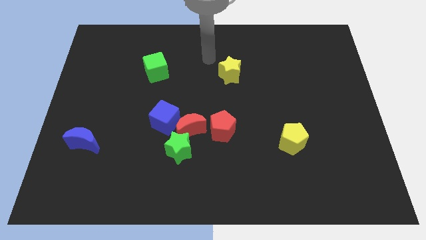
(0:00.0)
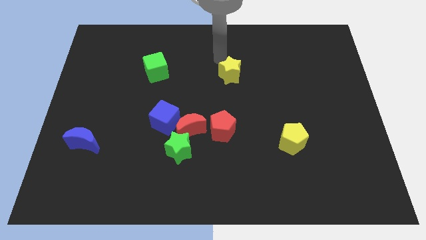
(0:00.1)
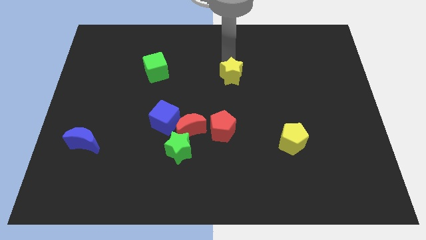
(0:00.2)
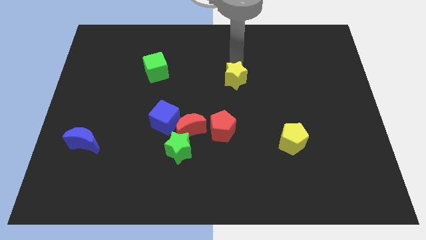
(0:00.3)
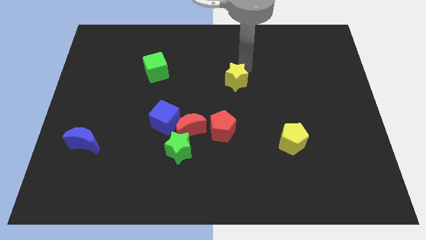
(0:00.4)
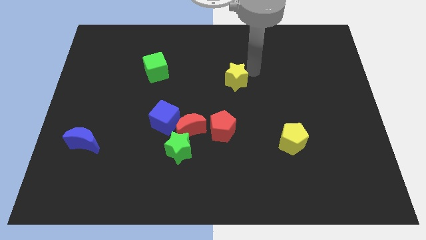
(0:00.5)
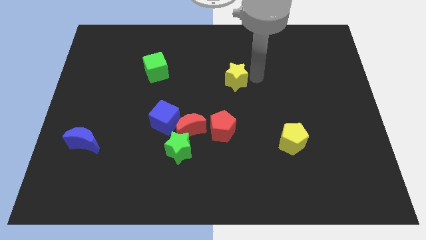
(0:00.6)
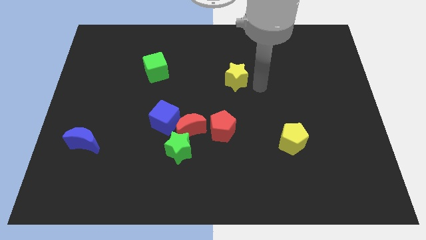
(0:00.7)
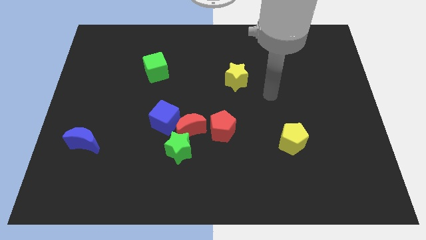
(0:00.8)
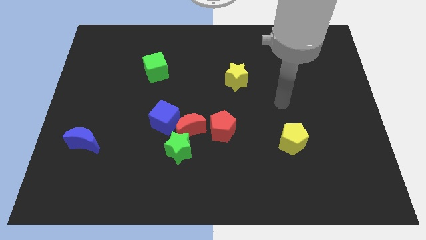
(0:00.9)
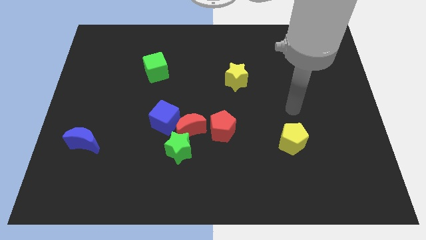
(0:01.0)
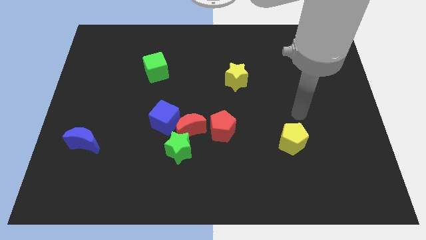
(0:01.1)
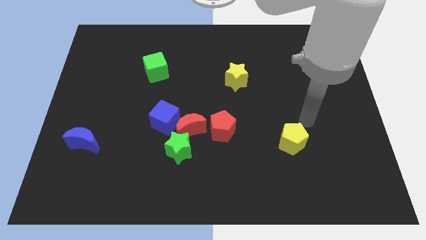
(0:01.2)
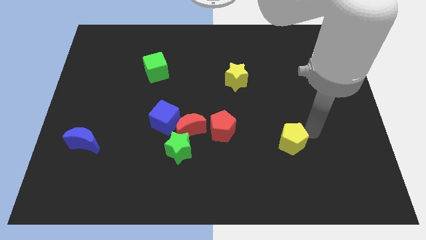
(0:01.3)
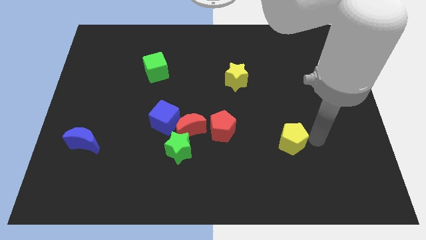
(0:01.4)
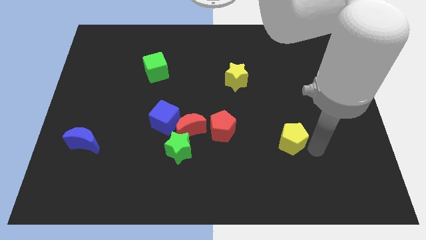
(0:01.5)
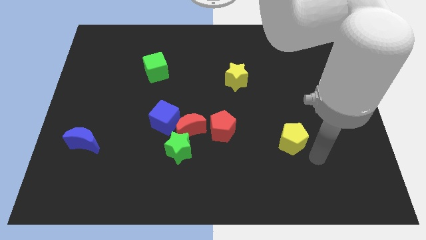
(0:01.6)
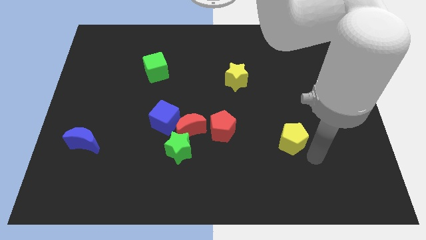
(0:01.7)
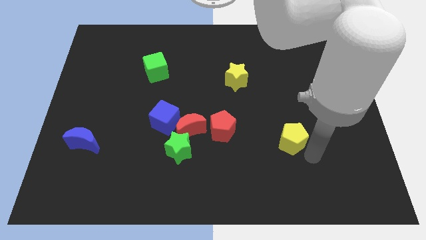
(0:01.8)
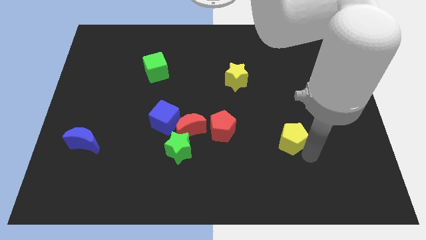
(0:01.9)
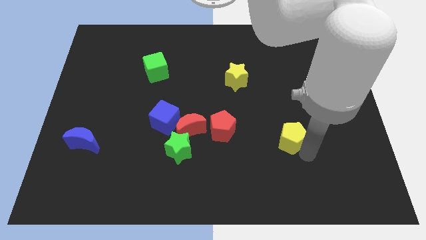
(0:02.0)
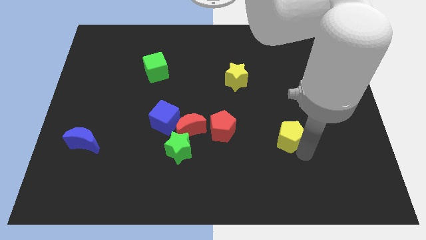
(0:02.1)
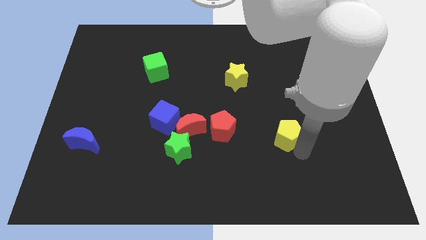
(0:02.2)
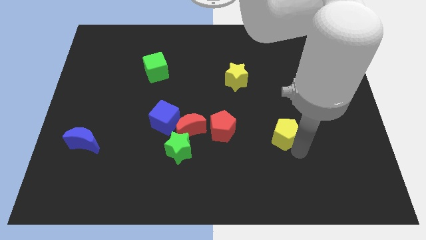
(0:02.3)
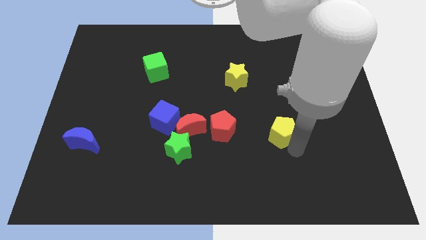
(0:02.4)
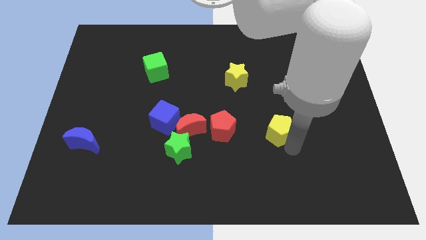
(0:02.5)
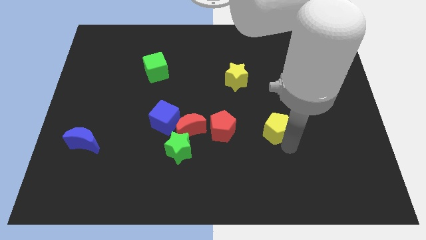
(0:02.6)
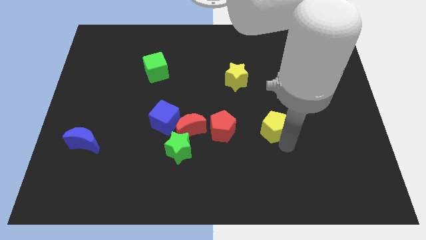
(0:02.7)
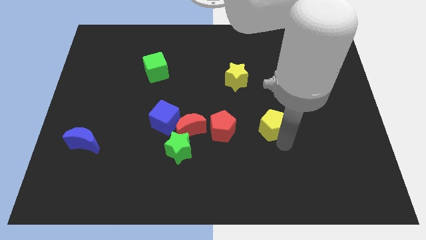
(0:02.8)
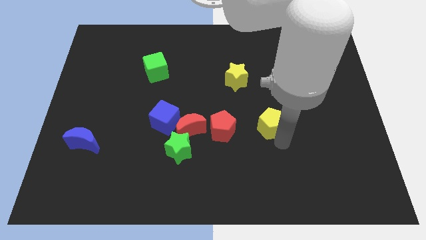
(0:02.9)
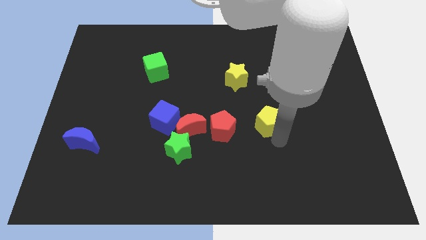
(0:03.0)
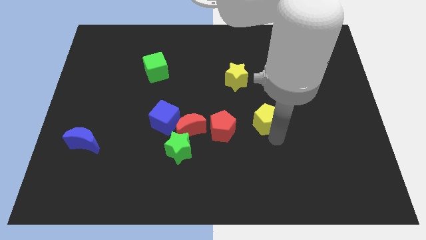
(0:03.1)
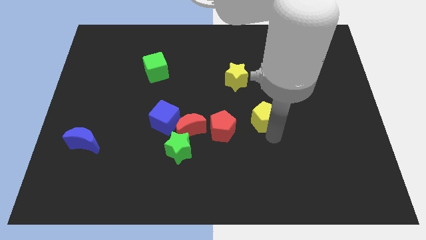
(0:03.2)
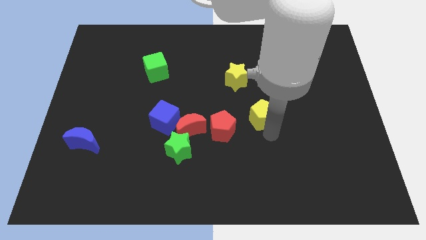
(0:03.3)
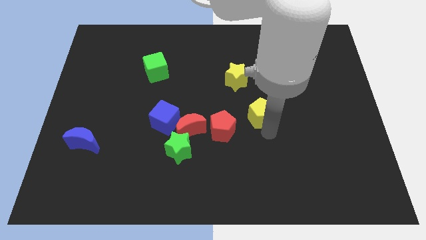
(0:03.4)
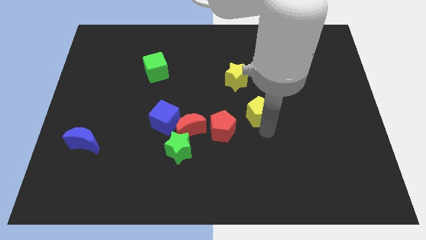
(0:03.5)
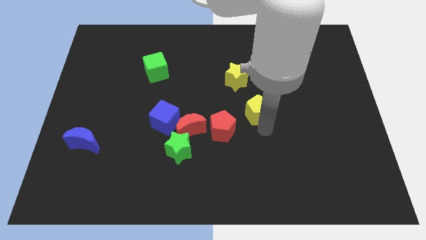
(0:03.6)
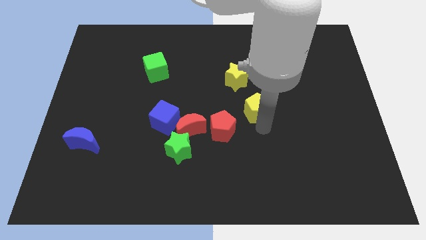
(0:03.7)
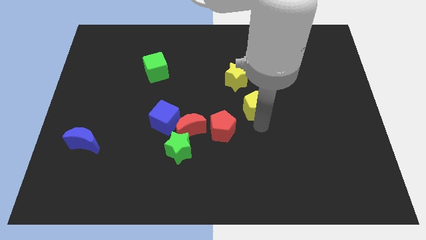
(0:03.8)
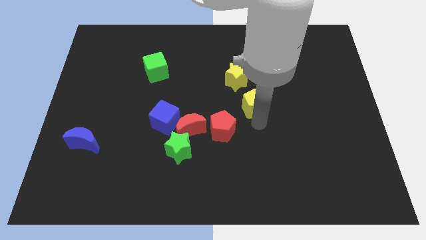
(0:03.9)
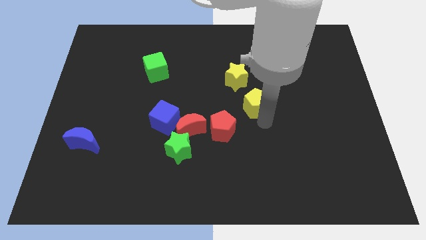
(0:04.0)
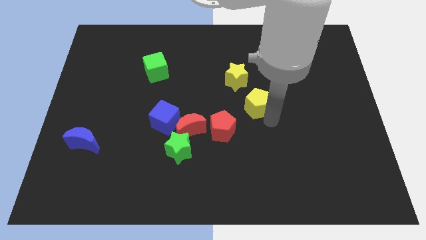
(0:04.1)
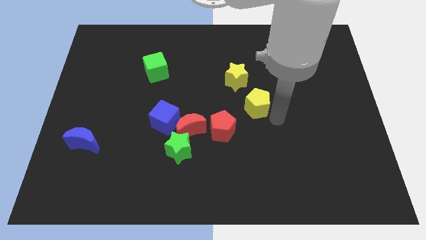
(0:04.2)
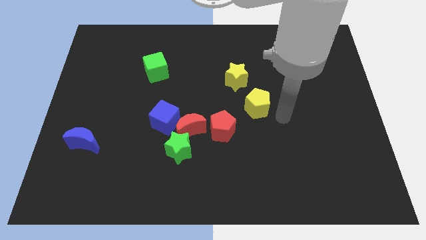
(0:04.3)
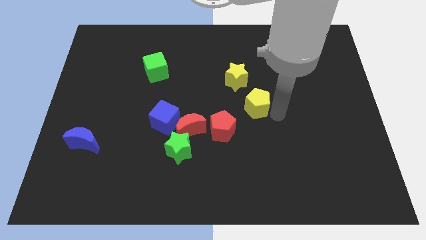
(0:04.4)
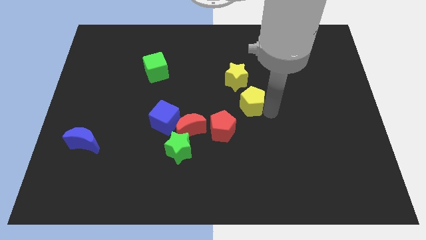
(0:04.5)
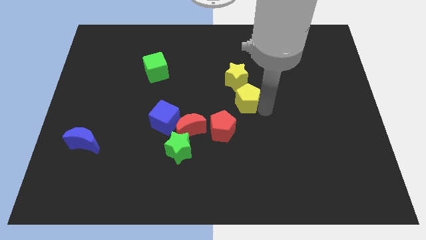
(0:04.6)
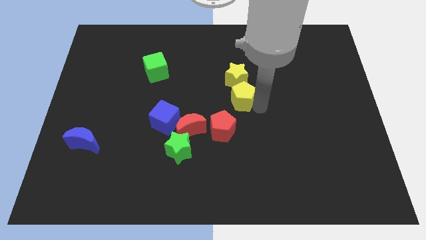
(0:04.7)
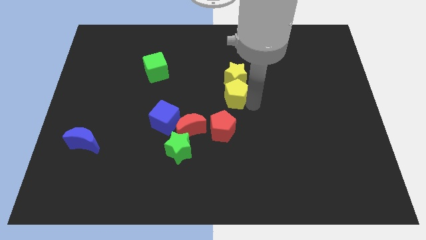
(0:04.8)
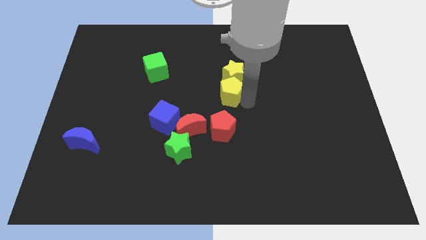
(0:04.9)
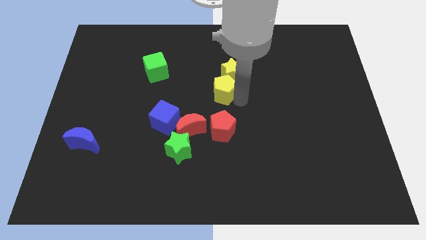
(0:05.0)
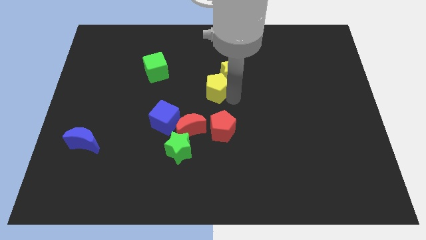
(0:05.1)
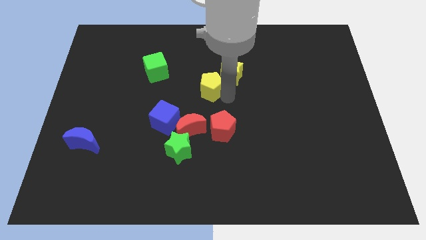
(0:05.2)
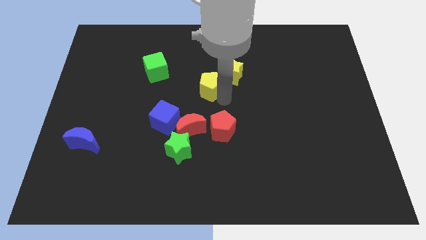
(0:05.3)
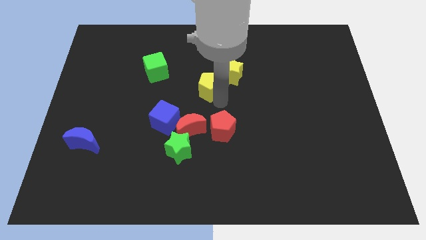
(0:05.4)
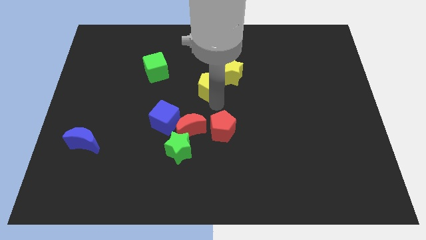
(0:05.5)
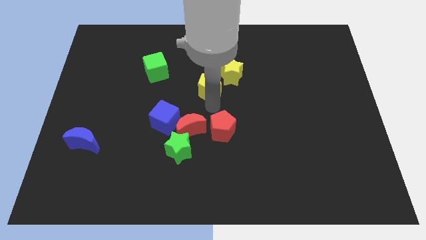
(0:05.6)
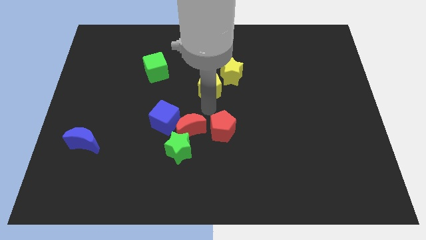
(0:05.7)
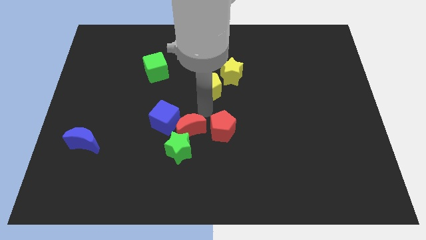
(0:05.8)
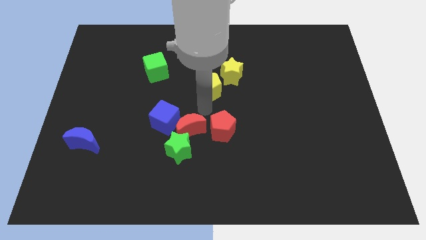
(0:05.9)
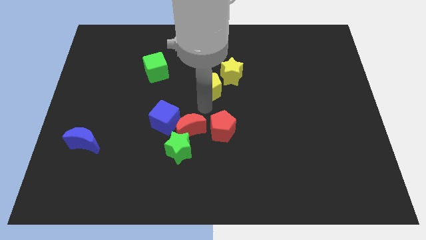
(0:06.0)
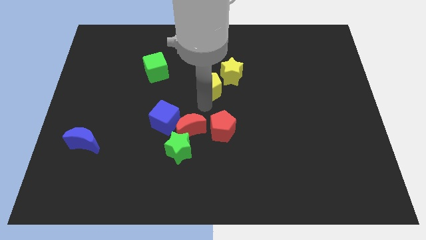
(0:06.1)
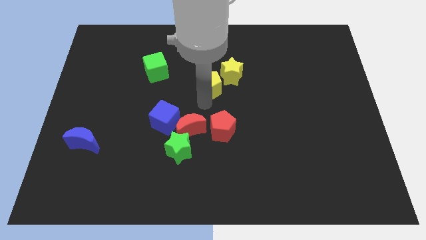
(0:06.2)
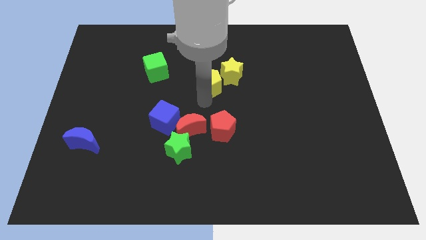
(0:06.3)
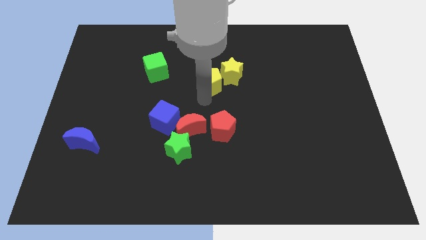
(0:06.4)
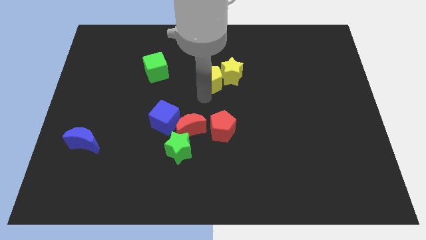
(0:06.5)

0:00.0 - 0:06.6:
put the yellow pentagon right of the green cube
